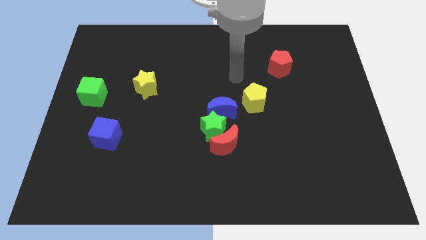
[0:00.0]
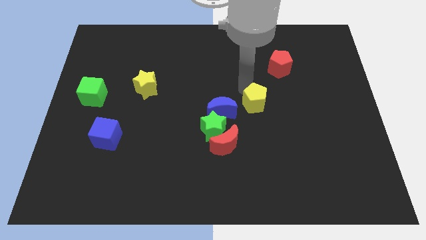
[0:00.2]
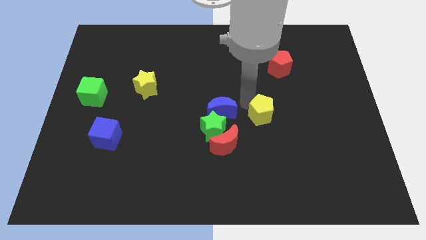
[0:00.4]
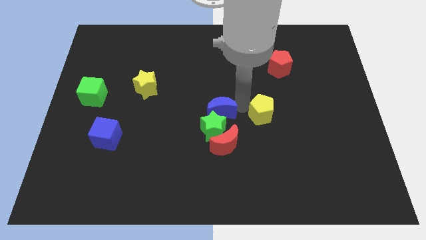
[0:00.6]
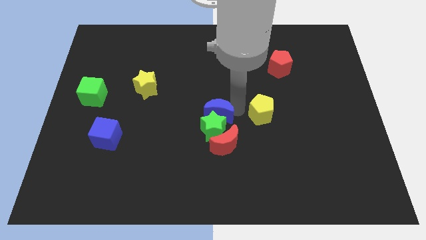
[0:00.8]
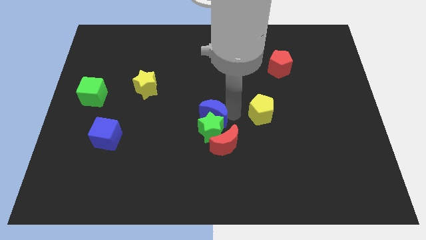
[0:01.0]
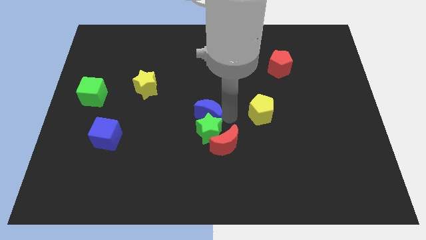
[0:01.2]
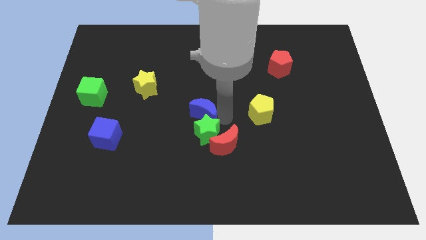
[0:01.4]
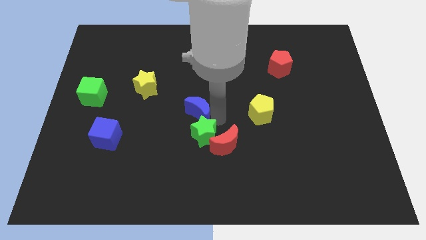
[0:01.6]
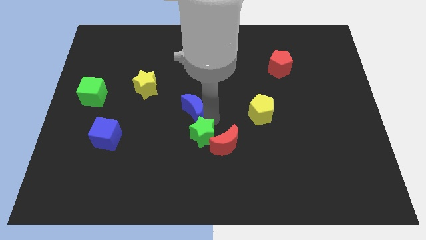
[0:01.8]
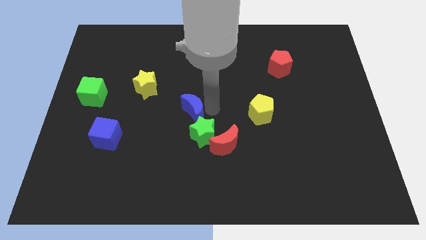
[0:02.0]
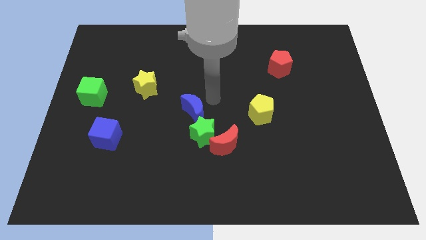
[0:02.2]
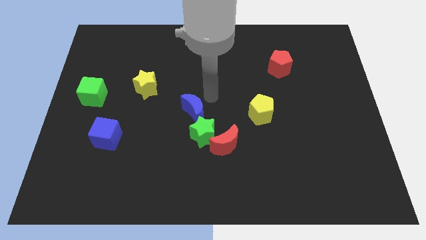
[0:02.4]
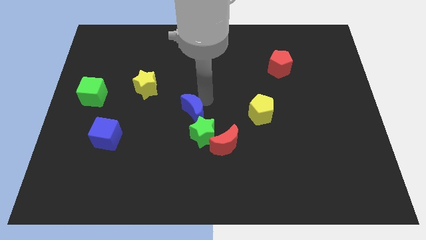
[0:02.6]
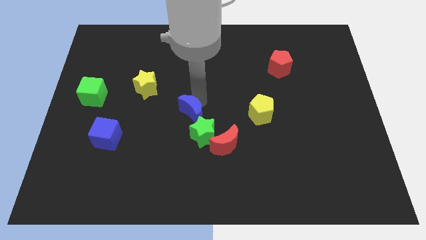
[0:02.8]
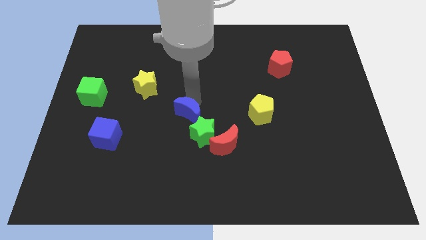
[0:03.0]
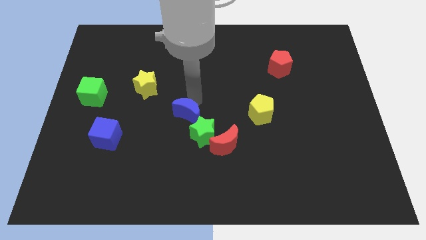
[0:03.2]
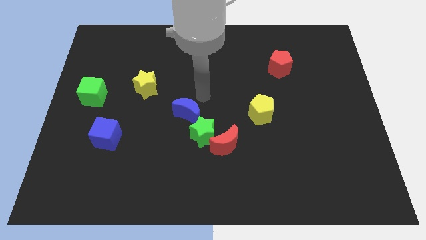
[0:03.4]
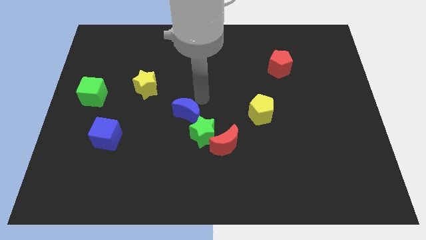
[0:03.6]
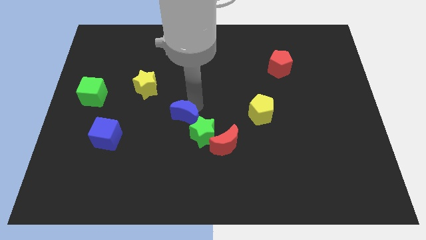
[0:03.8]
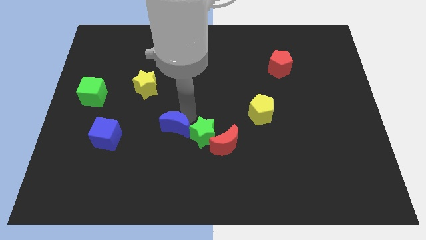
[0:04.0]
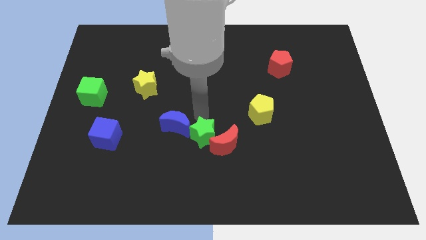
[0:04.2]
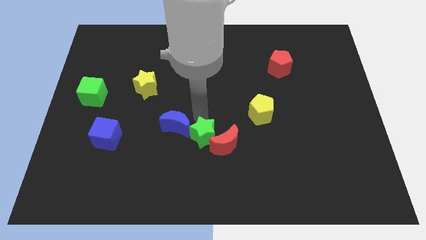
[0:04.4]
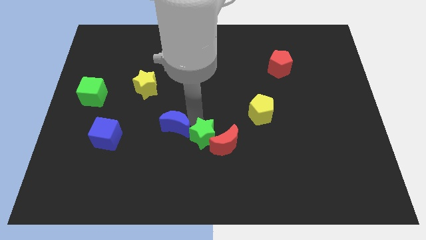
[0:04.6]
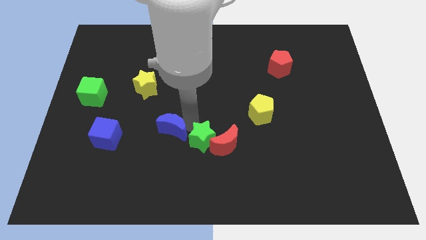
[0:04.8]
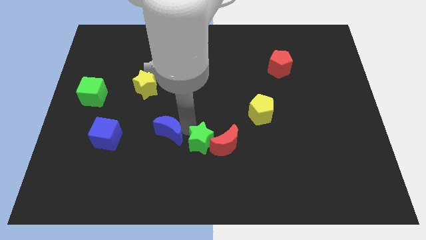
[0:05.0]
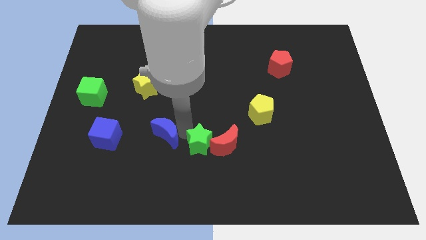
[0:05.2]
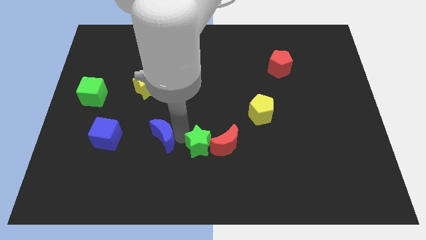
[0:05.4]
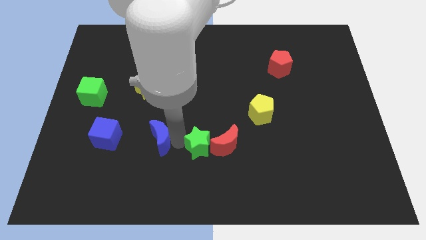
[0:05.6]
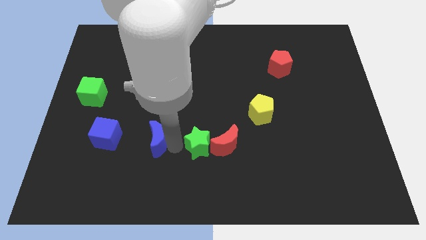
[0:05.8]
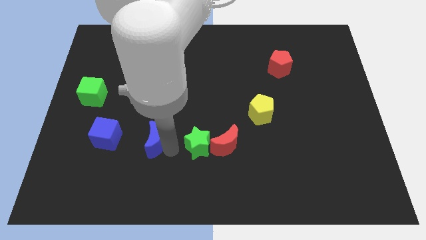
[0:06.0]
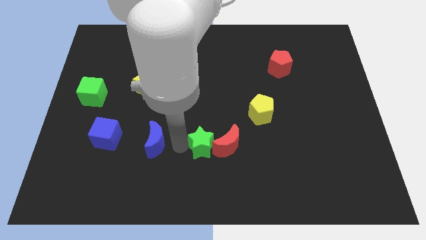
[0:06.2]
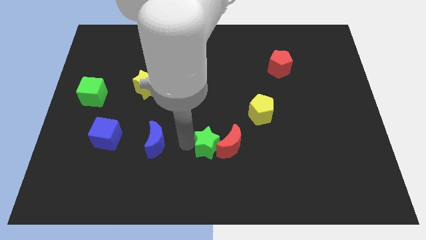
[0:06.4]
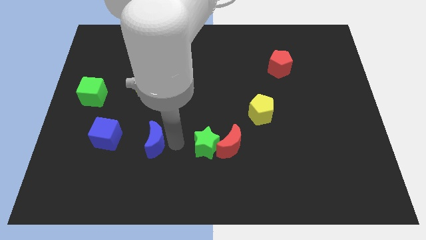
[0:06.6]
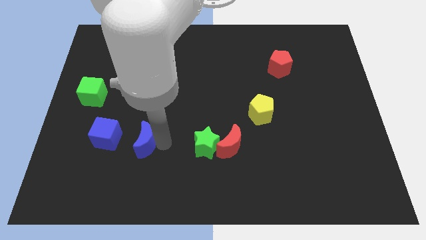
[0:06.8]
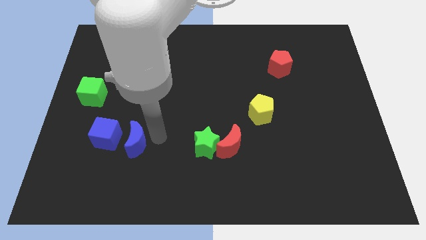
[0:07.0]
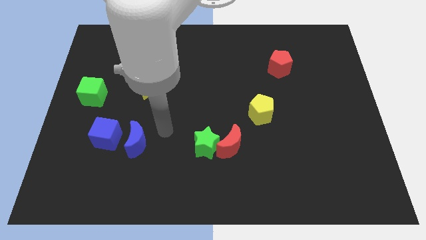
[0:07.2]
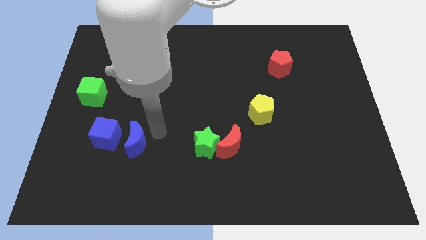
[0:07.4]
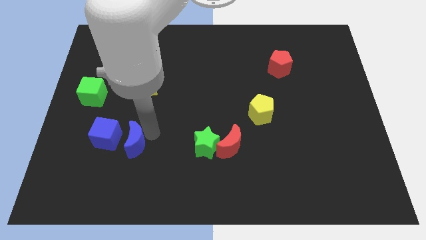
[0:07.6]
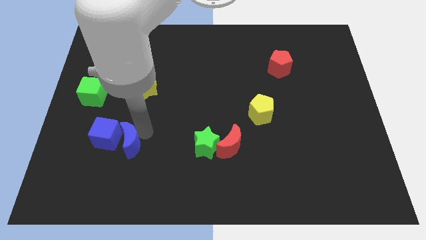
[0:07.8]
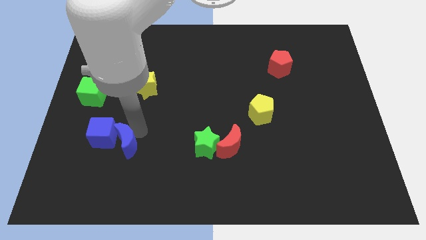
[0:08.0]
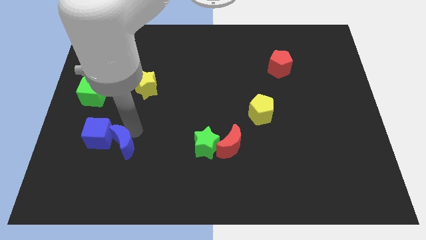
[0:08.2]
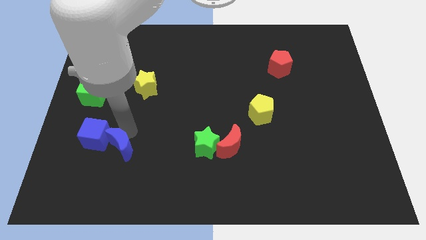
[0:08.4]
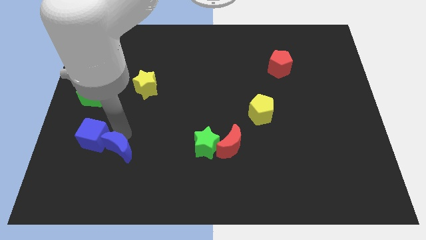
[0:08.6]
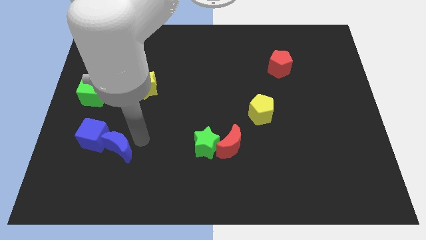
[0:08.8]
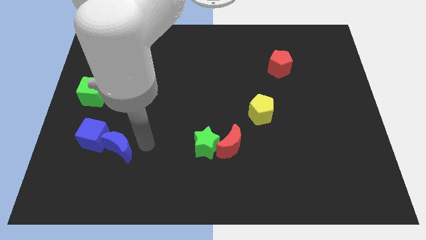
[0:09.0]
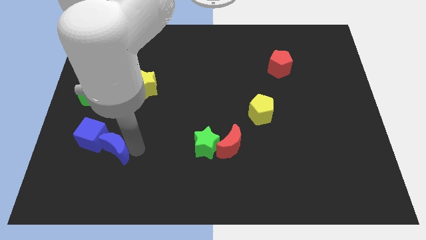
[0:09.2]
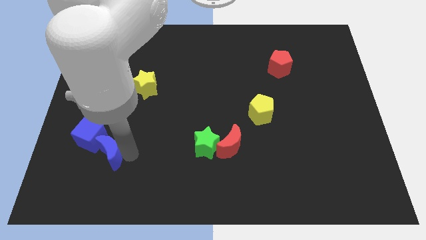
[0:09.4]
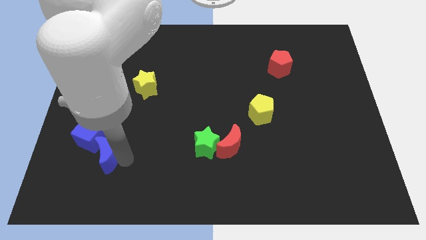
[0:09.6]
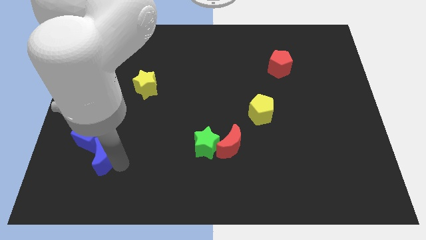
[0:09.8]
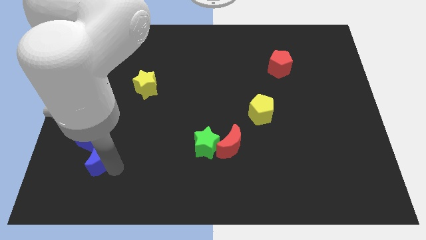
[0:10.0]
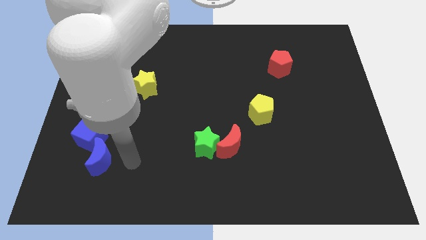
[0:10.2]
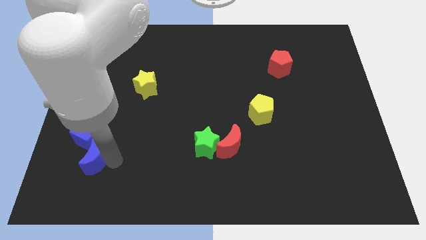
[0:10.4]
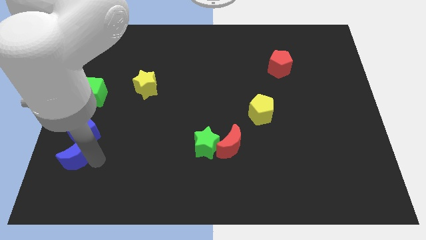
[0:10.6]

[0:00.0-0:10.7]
slide the blue moon to the bottom left side of the blue cube

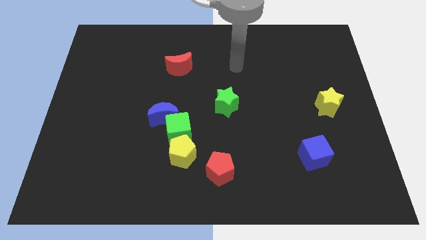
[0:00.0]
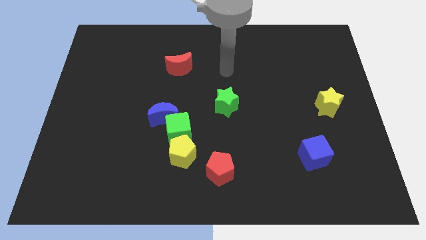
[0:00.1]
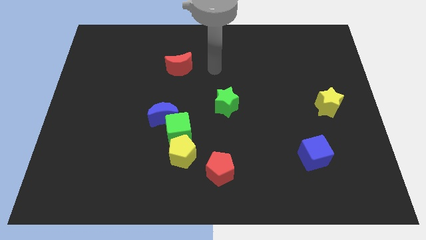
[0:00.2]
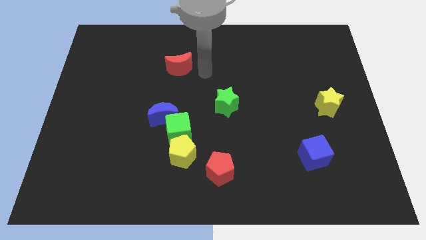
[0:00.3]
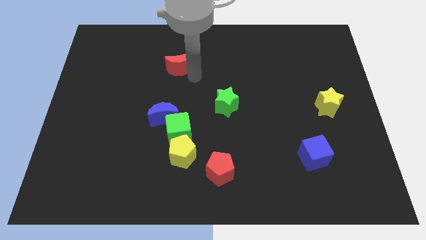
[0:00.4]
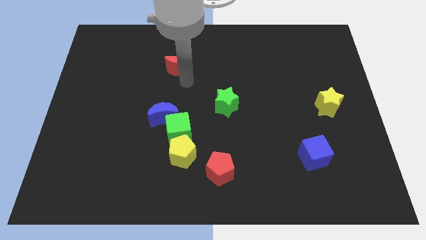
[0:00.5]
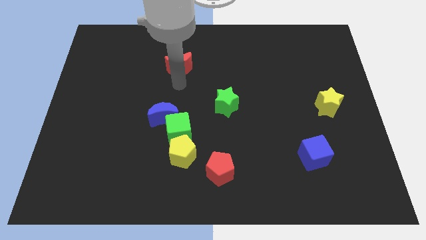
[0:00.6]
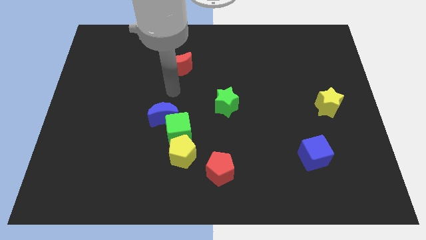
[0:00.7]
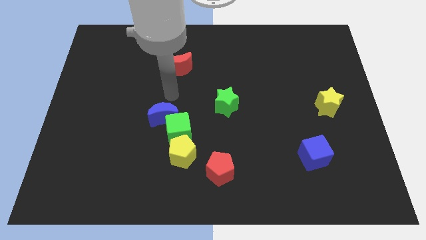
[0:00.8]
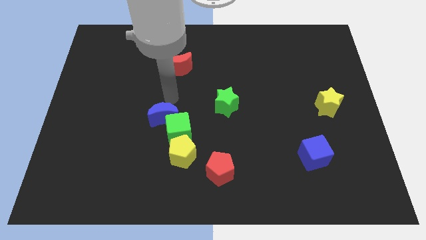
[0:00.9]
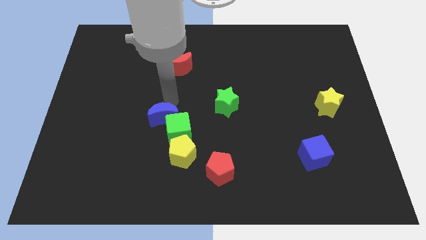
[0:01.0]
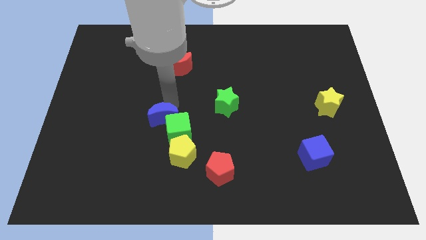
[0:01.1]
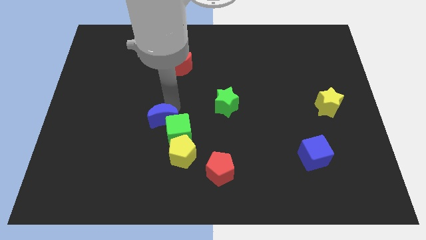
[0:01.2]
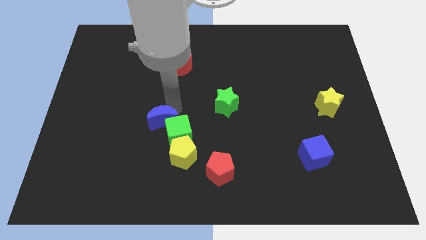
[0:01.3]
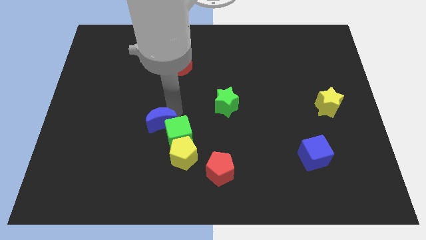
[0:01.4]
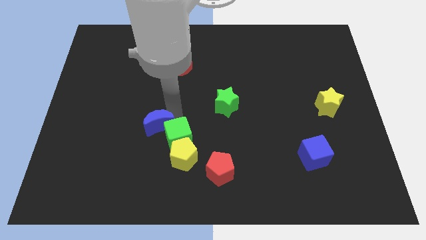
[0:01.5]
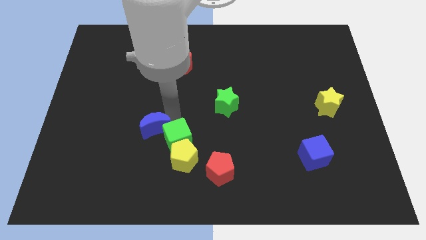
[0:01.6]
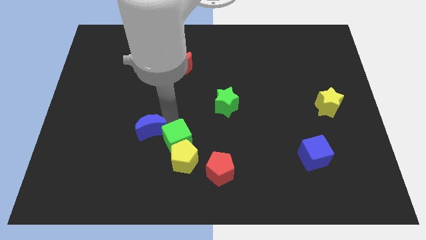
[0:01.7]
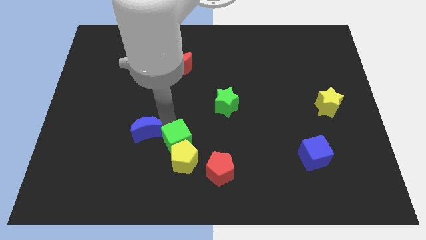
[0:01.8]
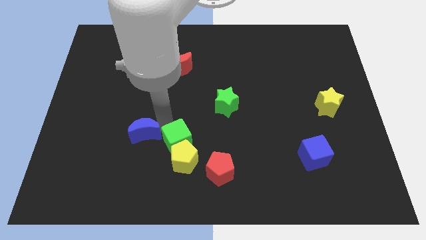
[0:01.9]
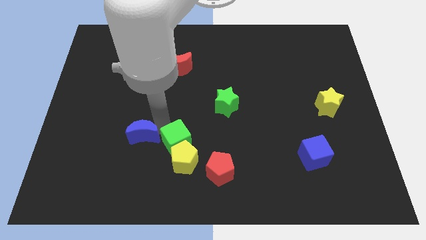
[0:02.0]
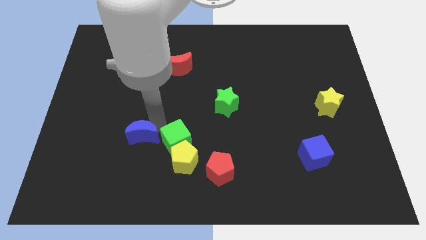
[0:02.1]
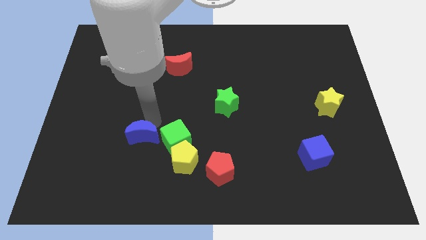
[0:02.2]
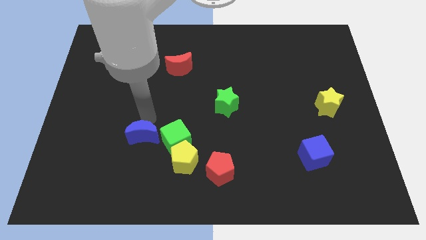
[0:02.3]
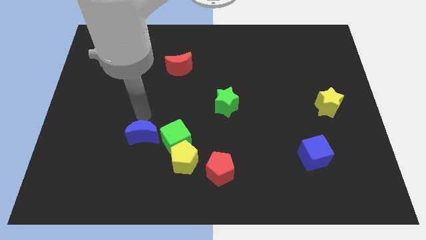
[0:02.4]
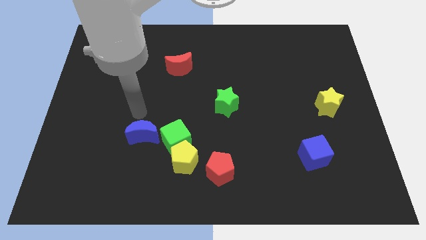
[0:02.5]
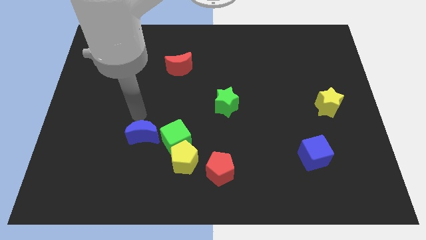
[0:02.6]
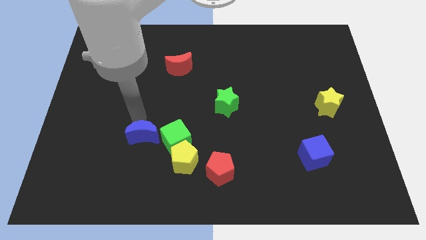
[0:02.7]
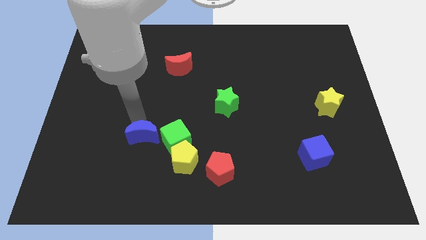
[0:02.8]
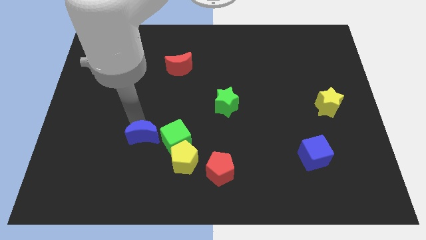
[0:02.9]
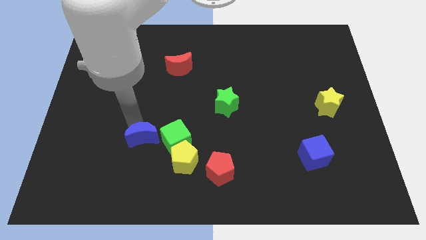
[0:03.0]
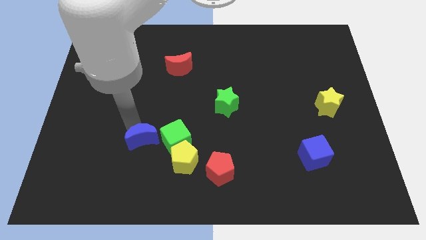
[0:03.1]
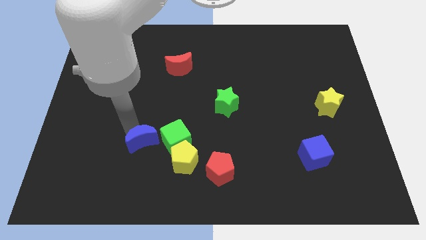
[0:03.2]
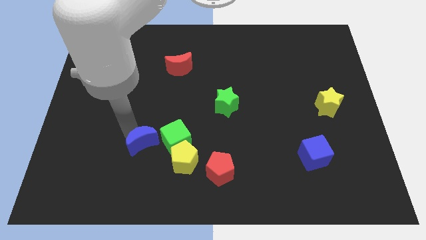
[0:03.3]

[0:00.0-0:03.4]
push the blue moon to the bottom left side of the green cube
